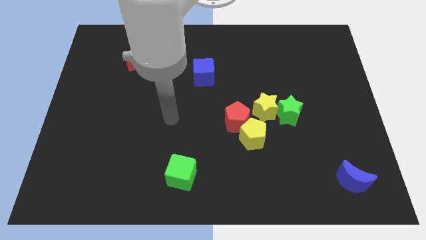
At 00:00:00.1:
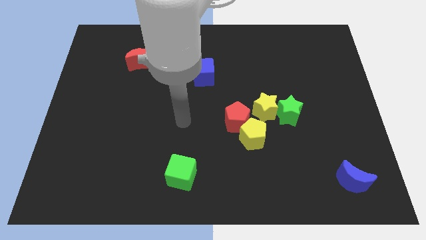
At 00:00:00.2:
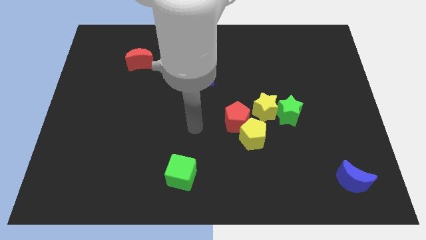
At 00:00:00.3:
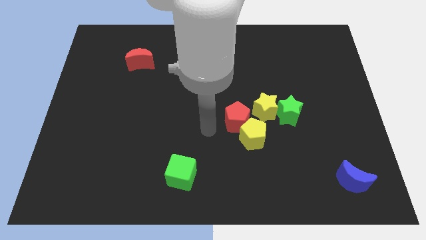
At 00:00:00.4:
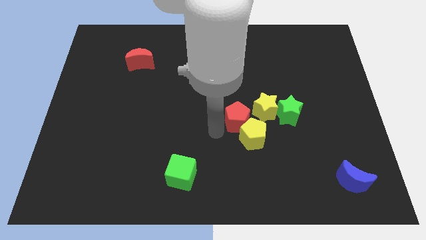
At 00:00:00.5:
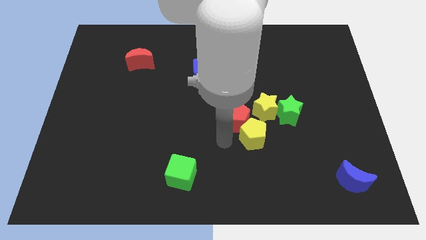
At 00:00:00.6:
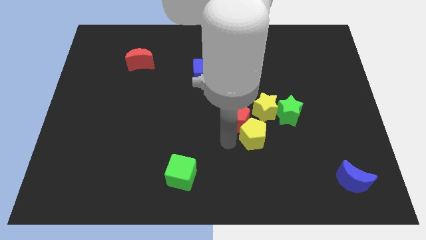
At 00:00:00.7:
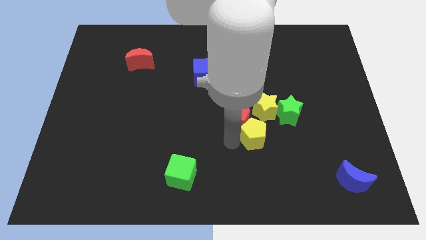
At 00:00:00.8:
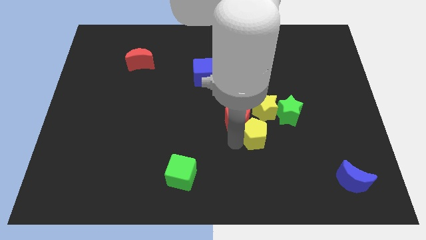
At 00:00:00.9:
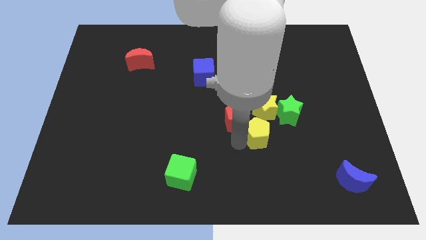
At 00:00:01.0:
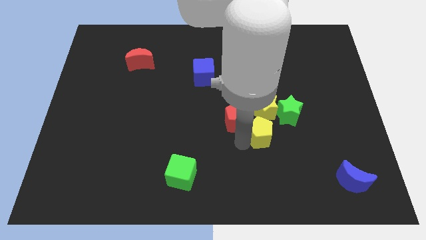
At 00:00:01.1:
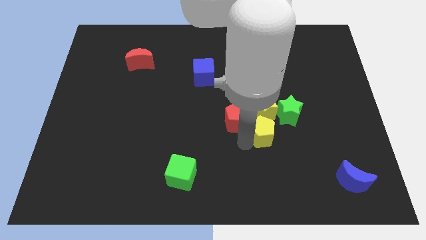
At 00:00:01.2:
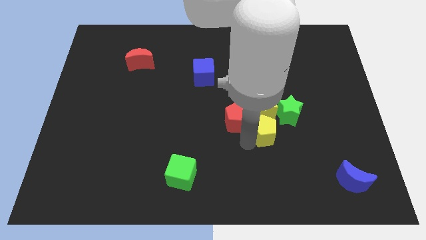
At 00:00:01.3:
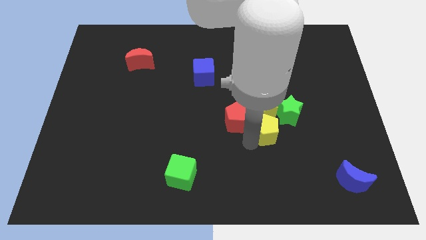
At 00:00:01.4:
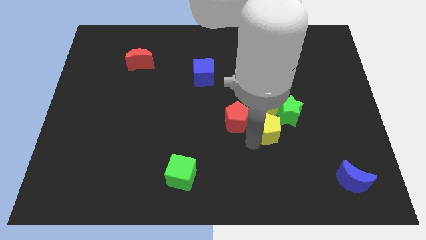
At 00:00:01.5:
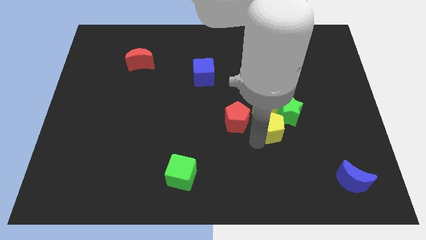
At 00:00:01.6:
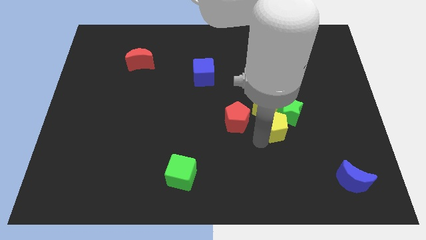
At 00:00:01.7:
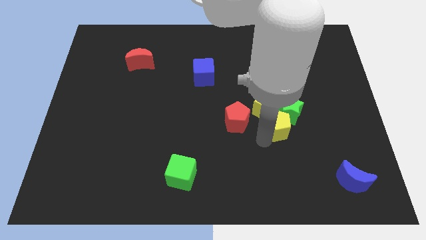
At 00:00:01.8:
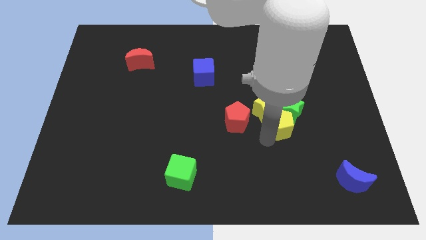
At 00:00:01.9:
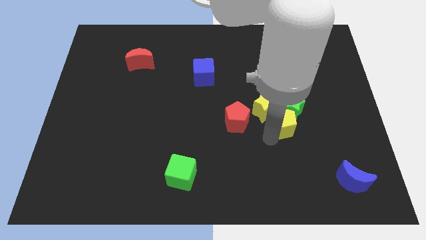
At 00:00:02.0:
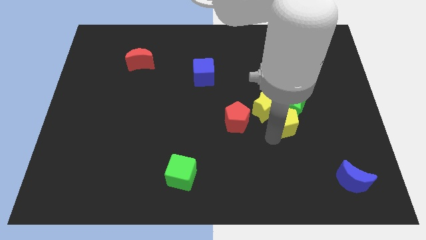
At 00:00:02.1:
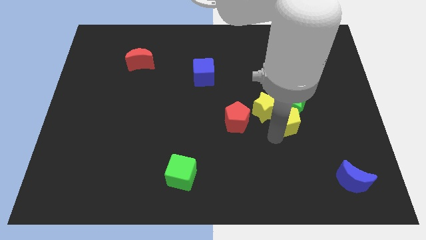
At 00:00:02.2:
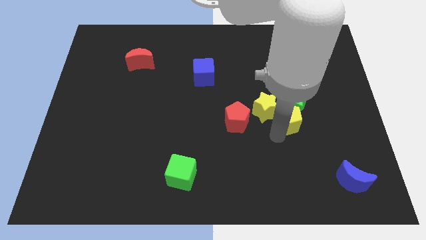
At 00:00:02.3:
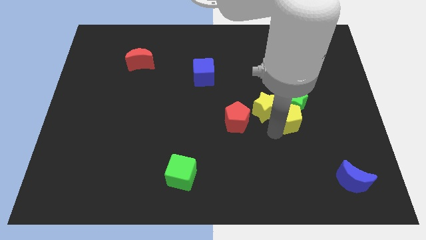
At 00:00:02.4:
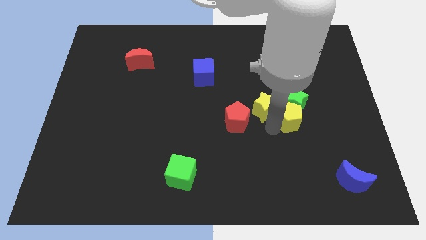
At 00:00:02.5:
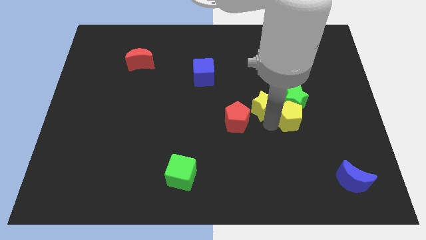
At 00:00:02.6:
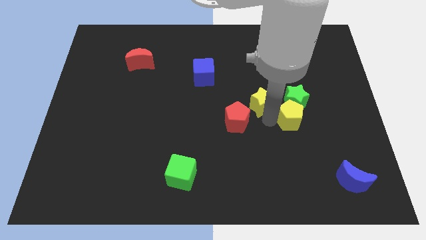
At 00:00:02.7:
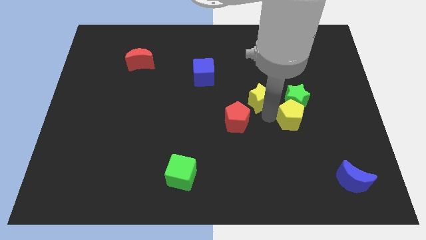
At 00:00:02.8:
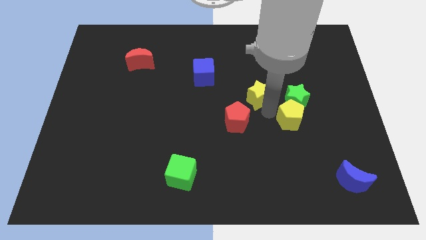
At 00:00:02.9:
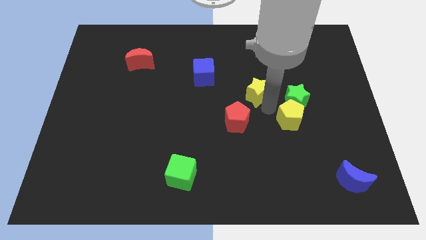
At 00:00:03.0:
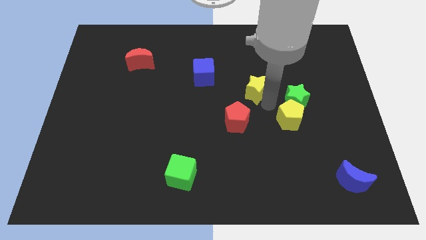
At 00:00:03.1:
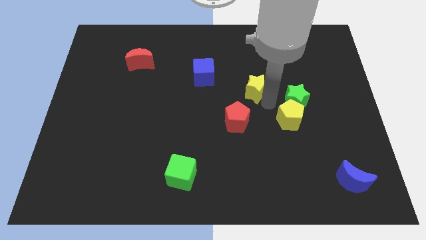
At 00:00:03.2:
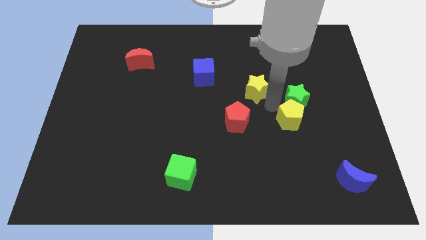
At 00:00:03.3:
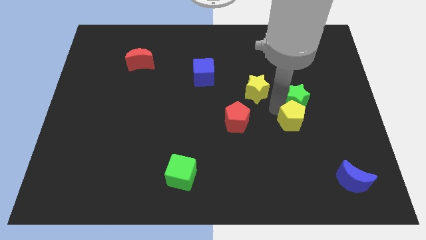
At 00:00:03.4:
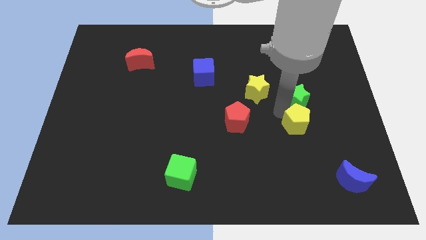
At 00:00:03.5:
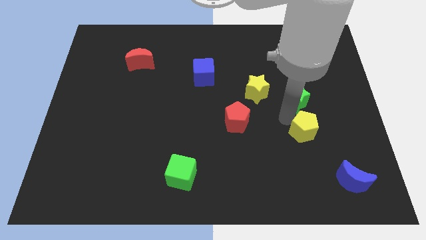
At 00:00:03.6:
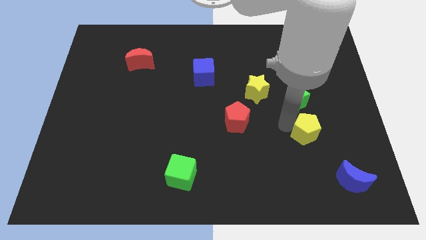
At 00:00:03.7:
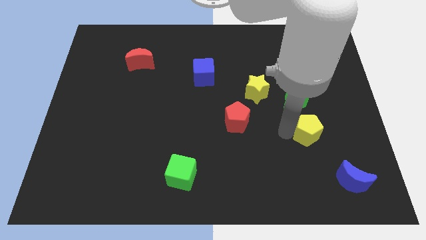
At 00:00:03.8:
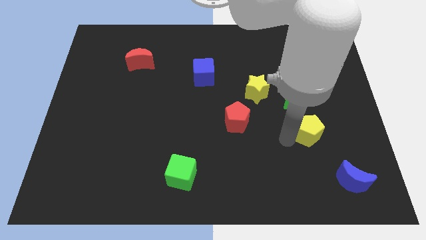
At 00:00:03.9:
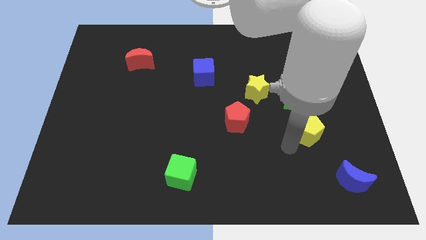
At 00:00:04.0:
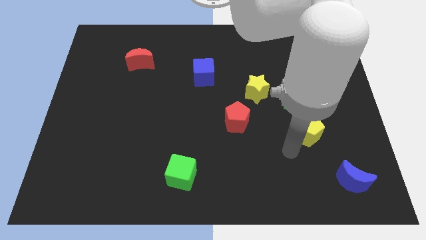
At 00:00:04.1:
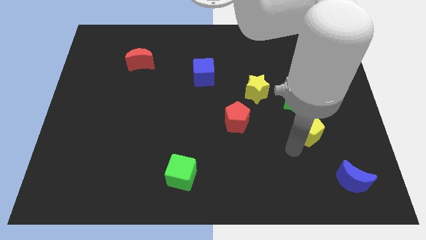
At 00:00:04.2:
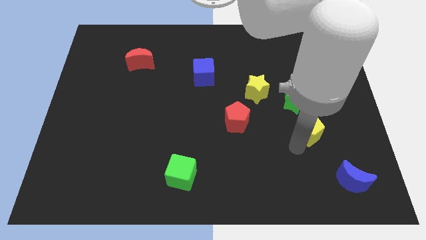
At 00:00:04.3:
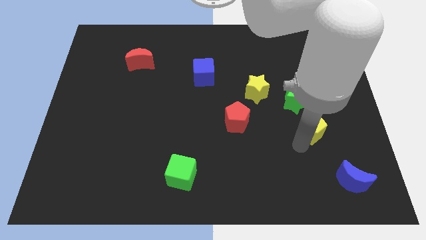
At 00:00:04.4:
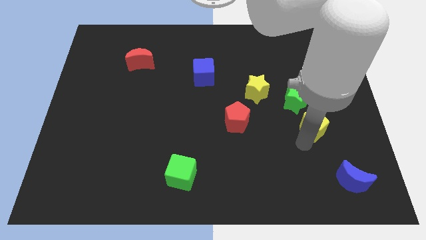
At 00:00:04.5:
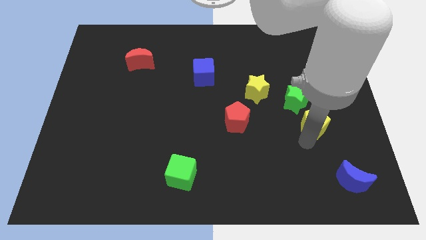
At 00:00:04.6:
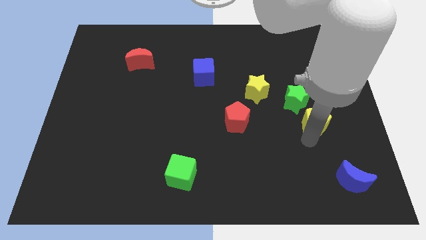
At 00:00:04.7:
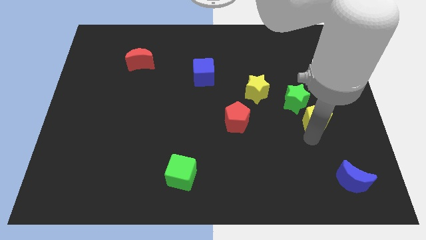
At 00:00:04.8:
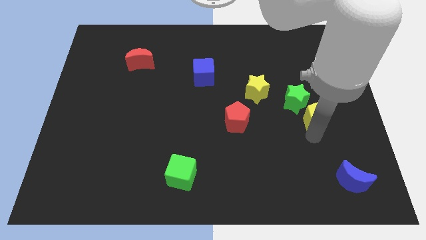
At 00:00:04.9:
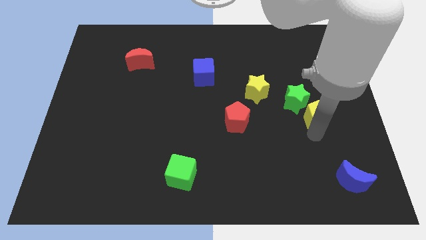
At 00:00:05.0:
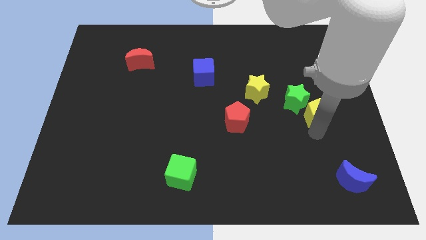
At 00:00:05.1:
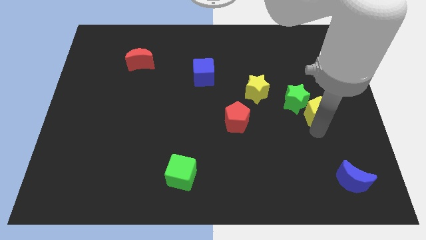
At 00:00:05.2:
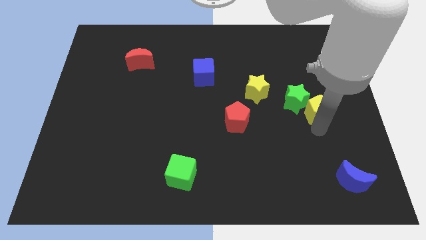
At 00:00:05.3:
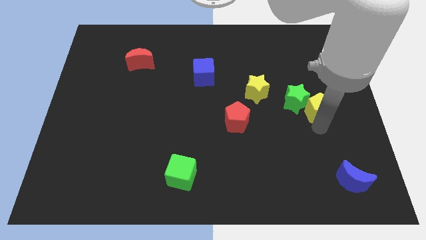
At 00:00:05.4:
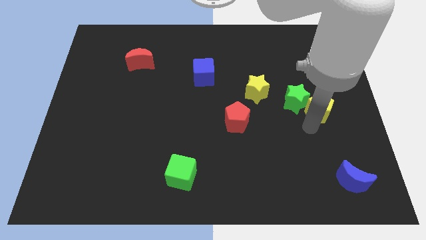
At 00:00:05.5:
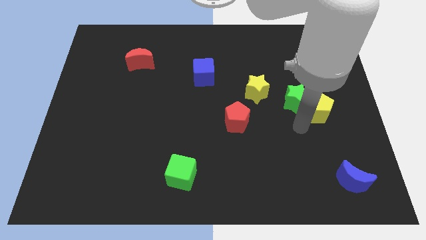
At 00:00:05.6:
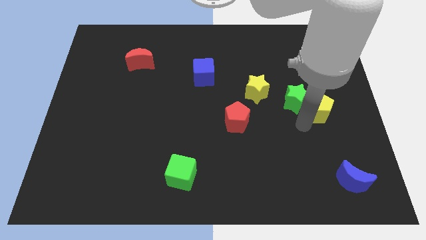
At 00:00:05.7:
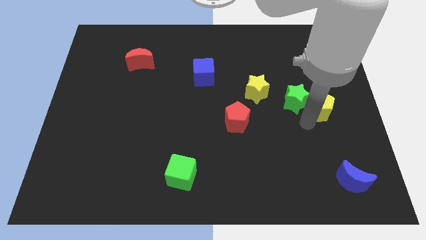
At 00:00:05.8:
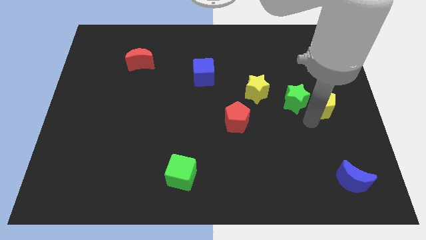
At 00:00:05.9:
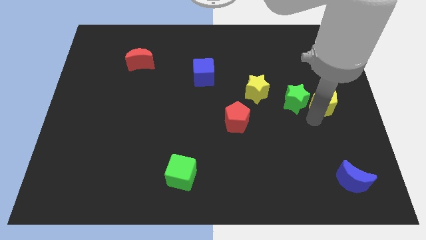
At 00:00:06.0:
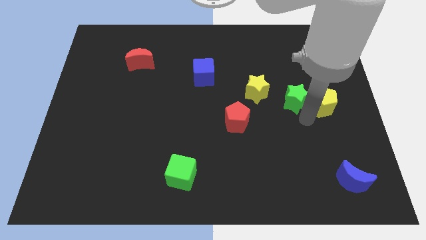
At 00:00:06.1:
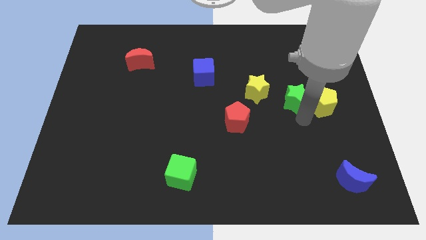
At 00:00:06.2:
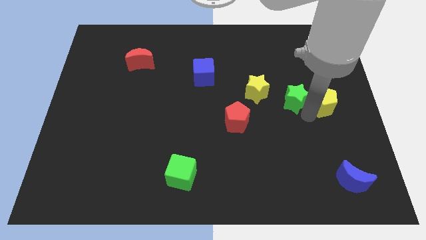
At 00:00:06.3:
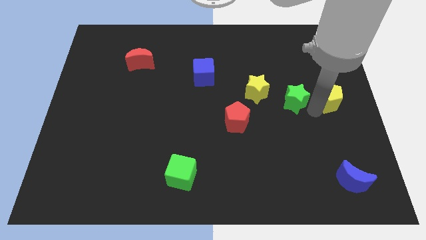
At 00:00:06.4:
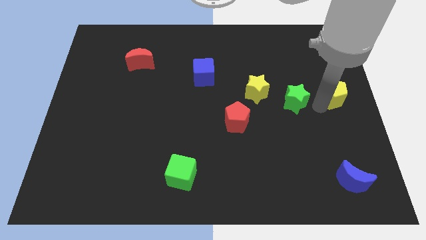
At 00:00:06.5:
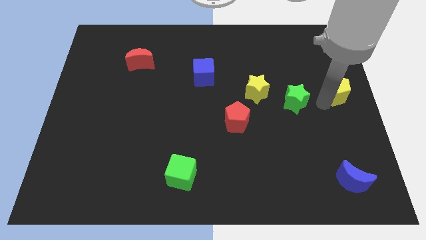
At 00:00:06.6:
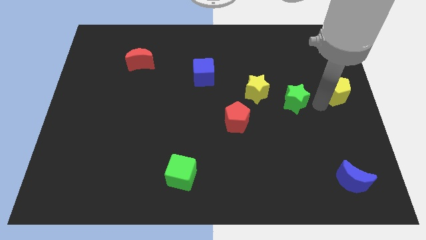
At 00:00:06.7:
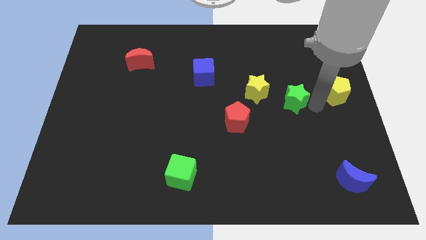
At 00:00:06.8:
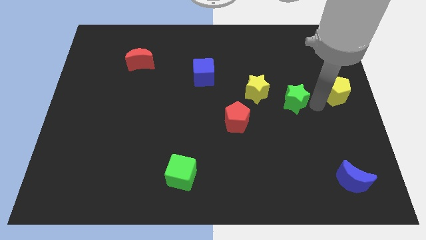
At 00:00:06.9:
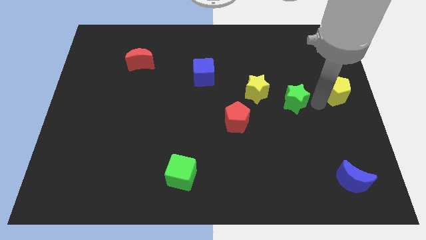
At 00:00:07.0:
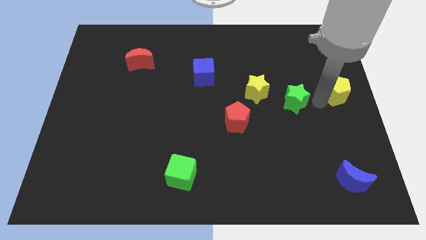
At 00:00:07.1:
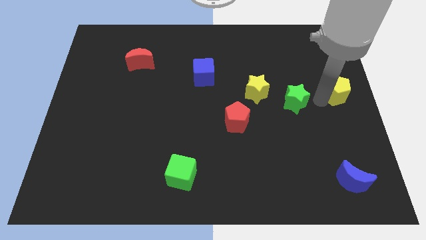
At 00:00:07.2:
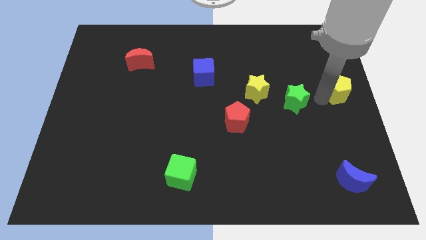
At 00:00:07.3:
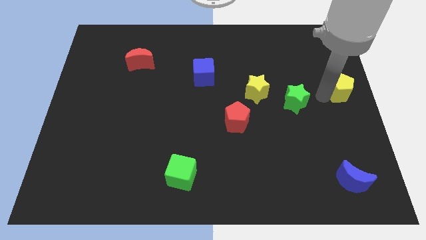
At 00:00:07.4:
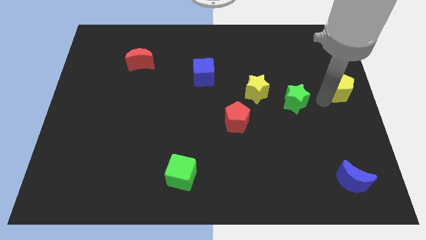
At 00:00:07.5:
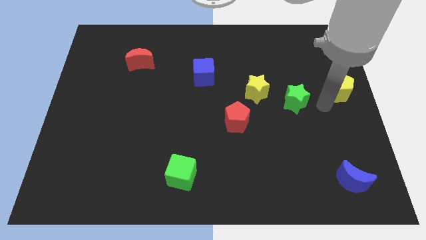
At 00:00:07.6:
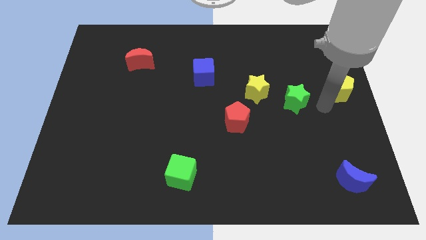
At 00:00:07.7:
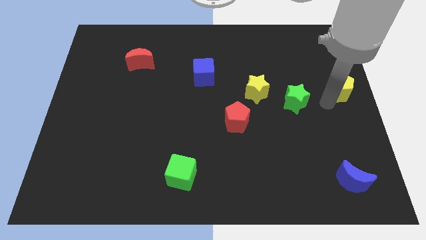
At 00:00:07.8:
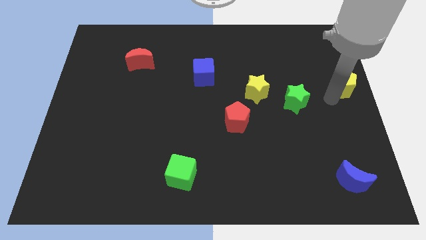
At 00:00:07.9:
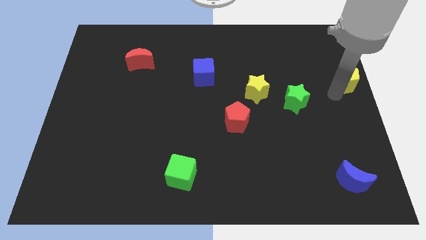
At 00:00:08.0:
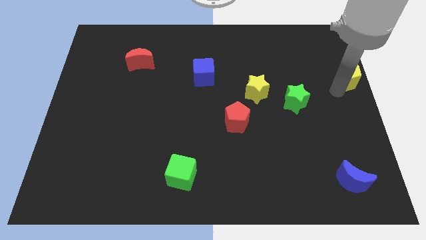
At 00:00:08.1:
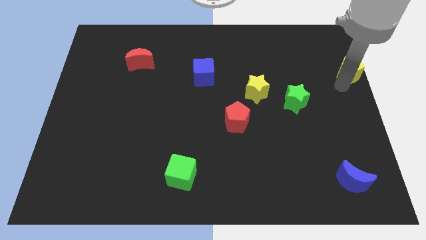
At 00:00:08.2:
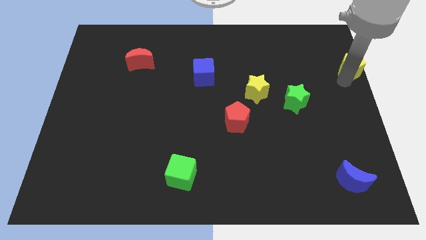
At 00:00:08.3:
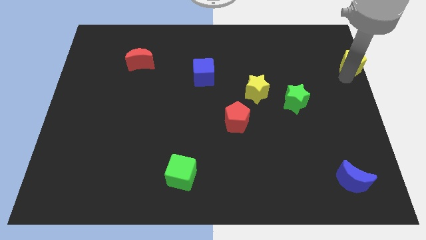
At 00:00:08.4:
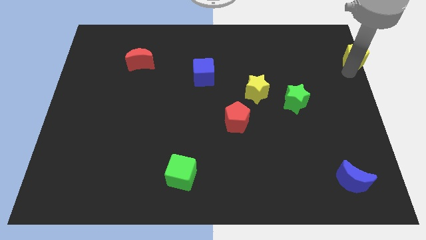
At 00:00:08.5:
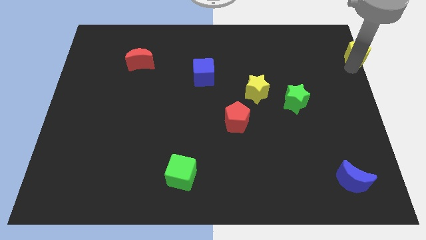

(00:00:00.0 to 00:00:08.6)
move the yellow pentagon to the top right of the board
